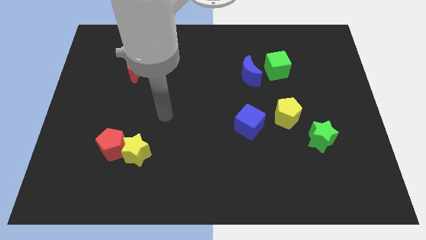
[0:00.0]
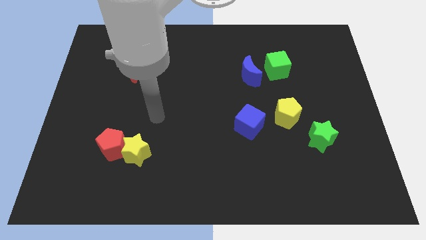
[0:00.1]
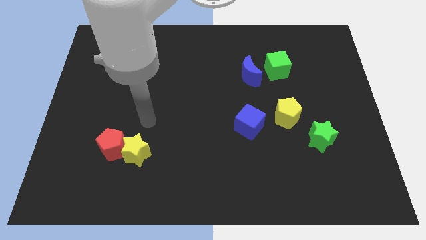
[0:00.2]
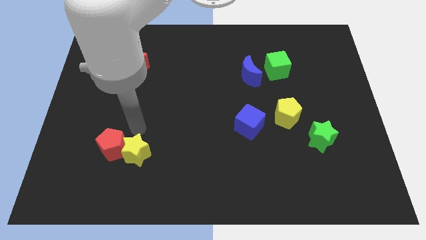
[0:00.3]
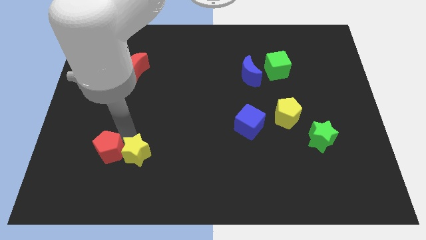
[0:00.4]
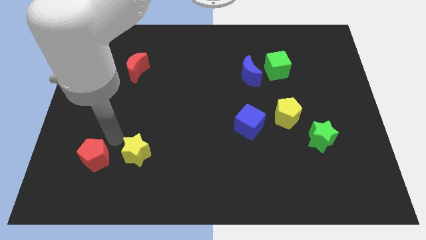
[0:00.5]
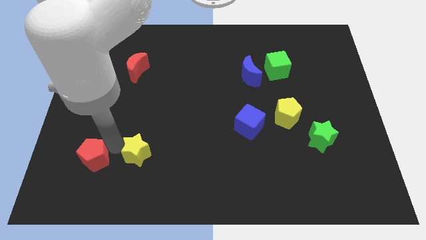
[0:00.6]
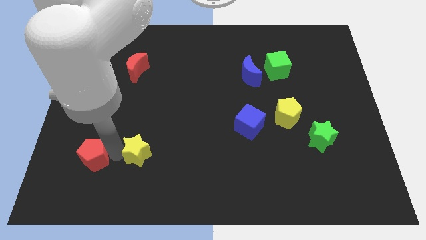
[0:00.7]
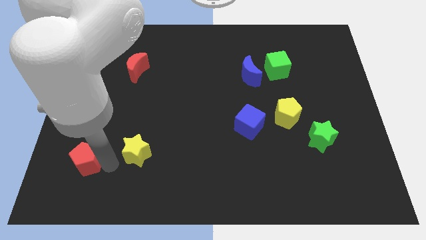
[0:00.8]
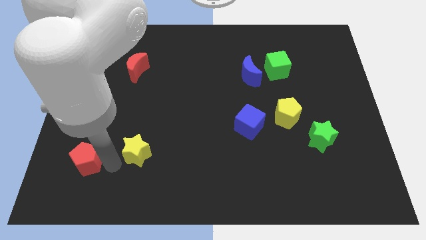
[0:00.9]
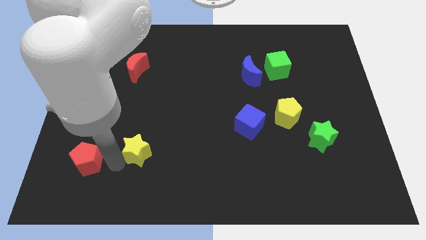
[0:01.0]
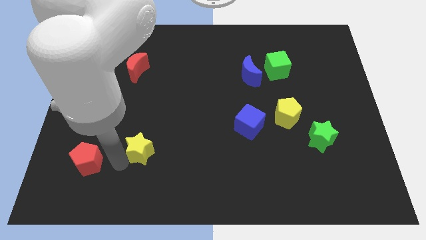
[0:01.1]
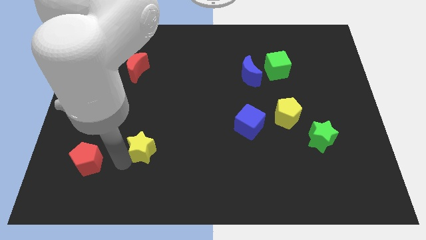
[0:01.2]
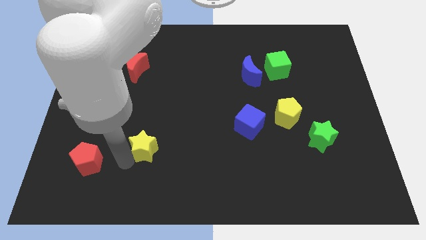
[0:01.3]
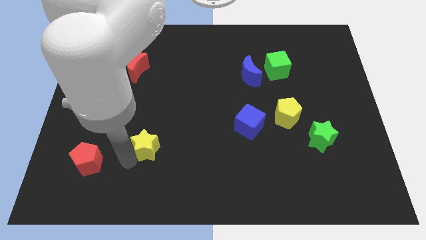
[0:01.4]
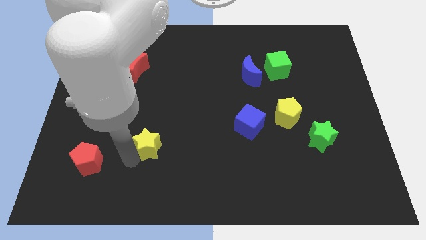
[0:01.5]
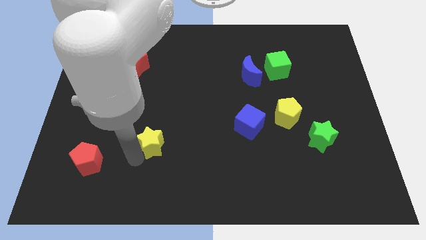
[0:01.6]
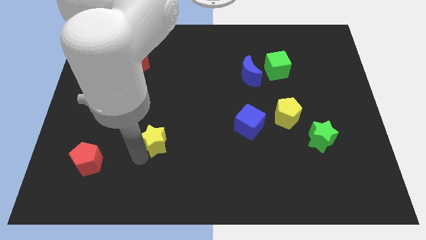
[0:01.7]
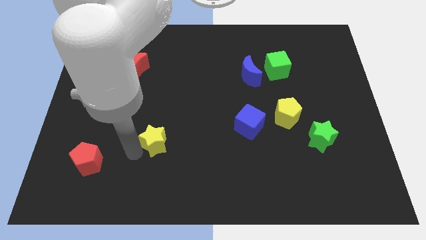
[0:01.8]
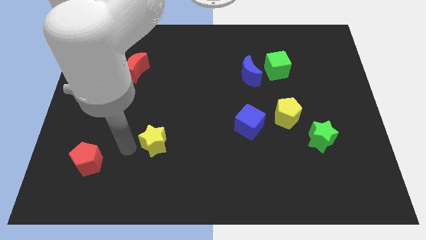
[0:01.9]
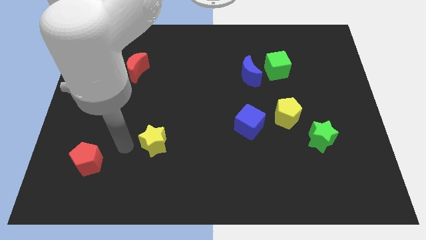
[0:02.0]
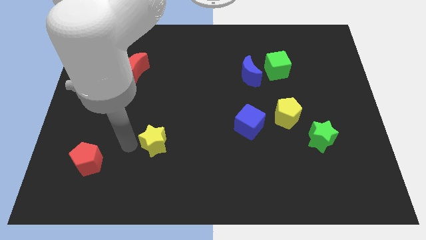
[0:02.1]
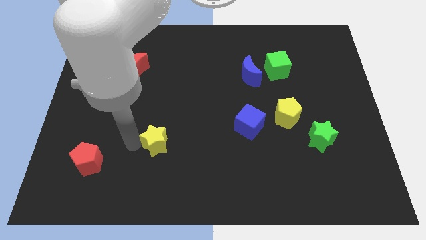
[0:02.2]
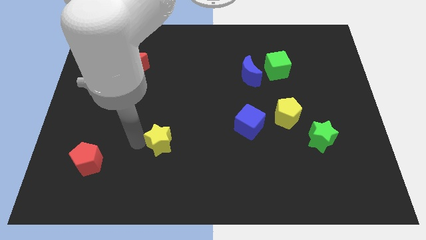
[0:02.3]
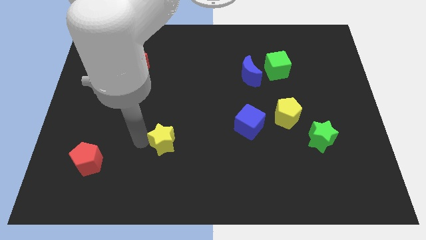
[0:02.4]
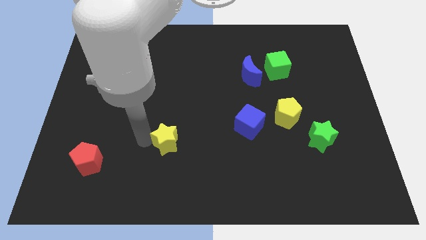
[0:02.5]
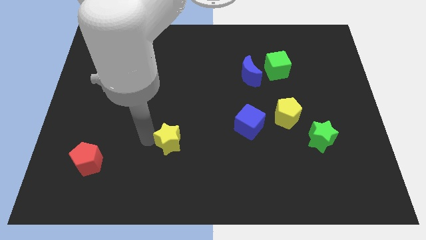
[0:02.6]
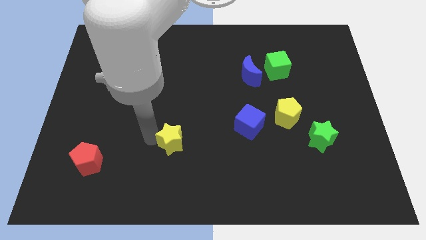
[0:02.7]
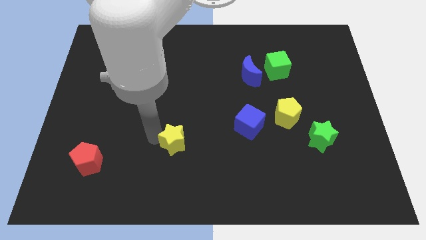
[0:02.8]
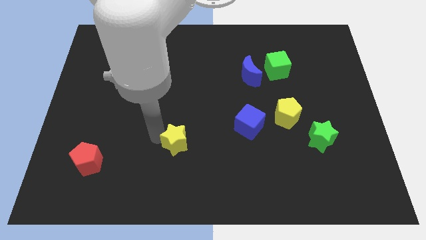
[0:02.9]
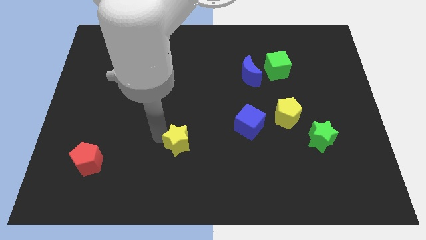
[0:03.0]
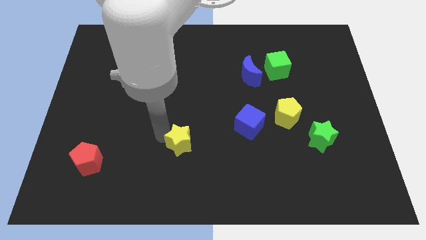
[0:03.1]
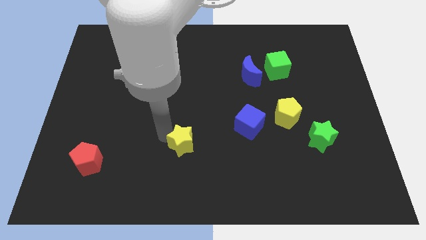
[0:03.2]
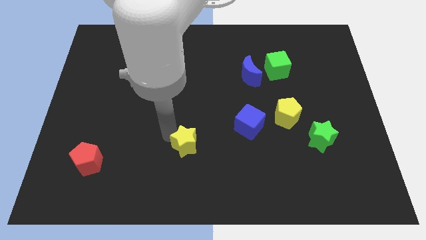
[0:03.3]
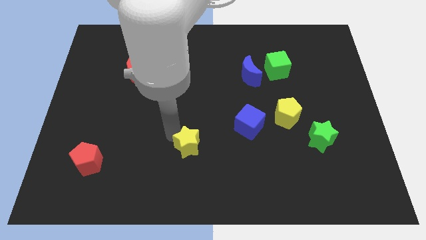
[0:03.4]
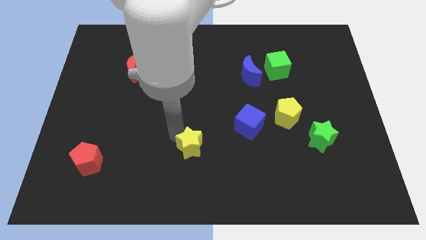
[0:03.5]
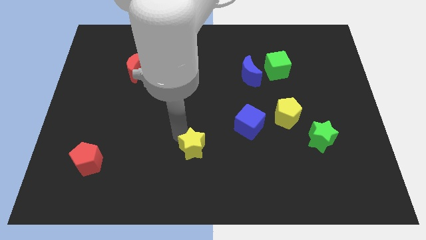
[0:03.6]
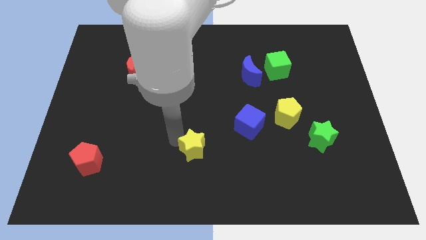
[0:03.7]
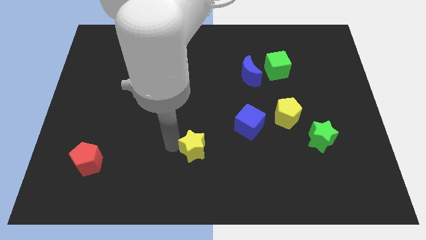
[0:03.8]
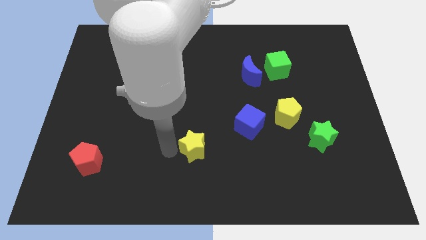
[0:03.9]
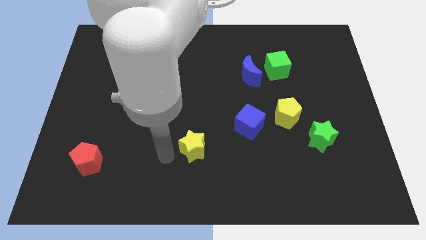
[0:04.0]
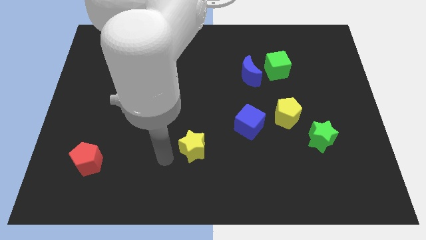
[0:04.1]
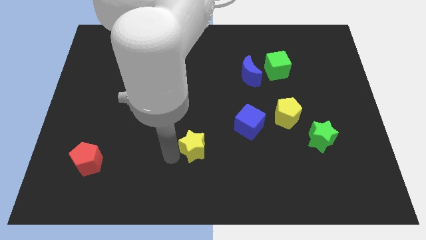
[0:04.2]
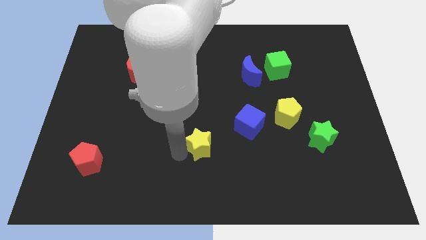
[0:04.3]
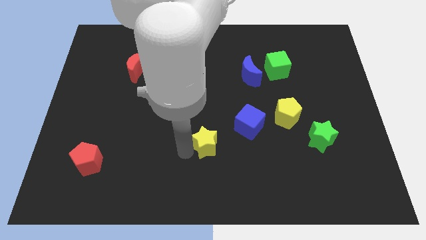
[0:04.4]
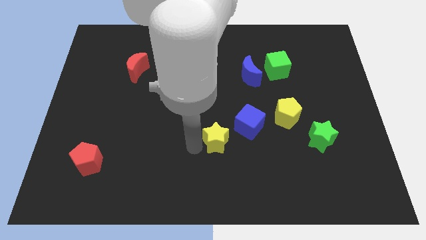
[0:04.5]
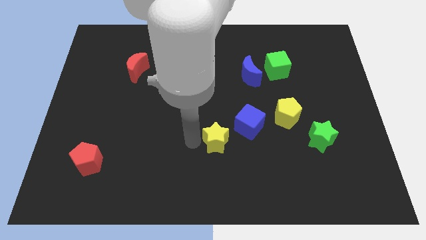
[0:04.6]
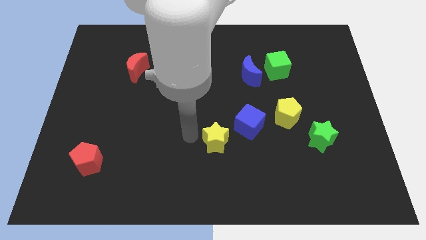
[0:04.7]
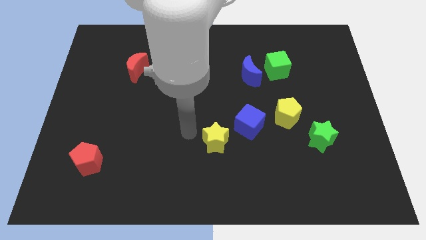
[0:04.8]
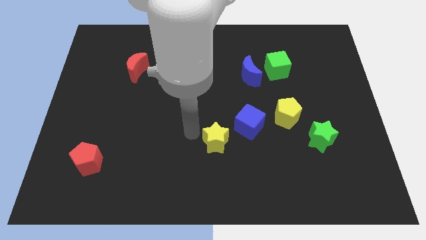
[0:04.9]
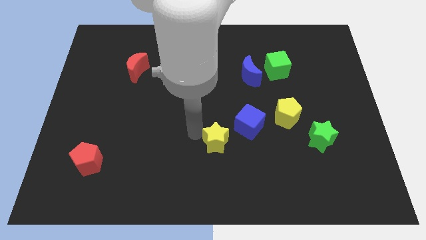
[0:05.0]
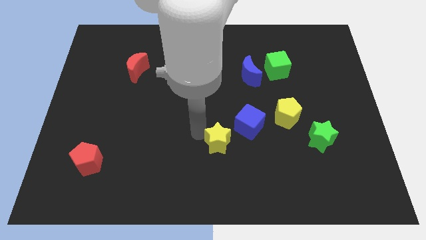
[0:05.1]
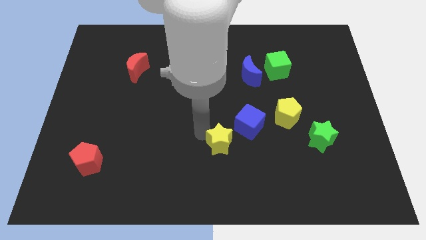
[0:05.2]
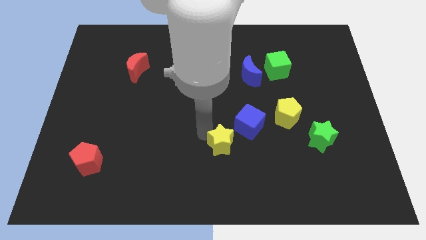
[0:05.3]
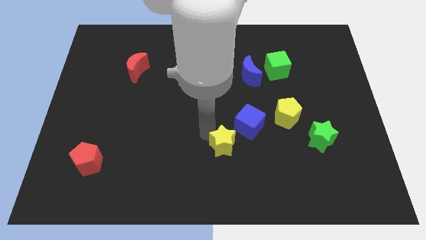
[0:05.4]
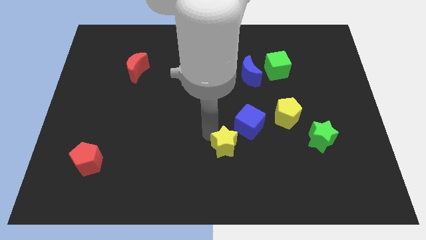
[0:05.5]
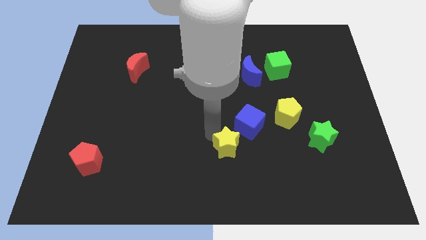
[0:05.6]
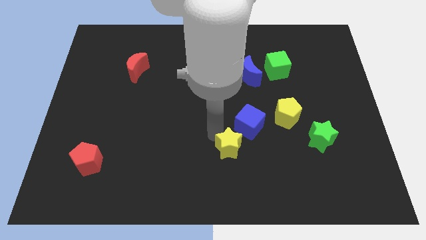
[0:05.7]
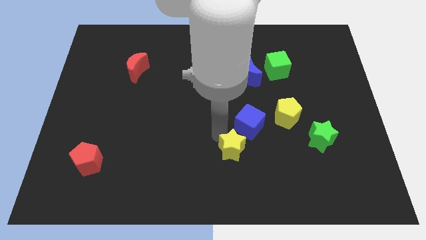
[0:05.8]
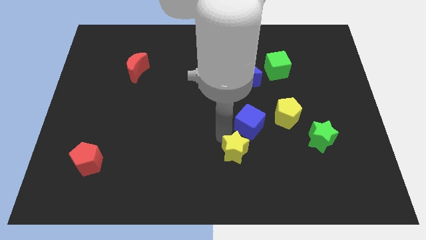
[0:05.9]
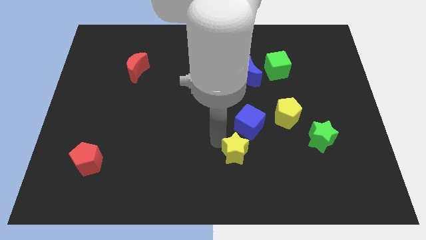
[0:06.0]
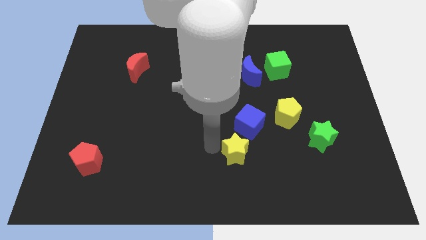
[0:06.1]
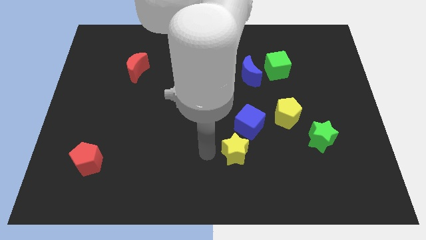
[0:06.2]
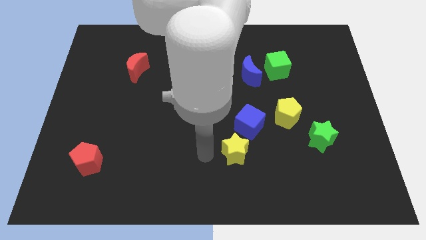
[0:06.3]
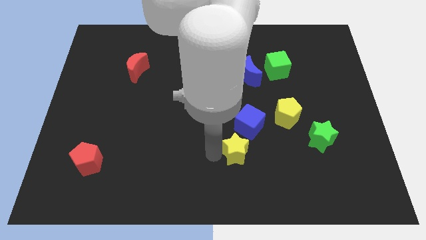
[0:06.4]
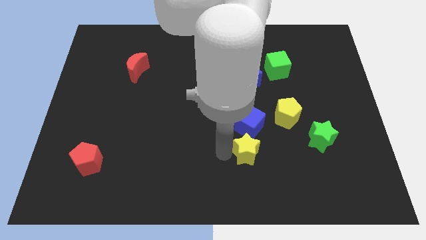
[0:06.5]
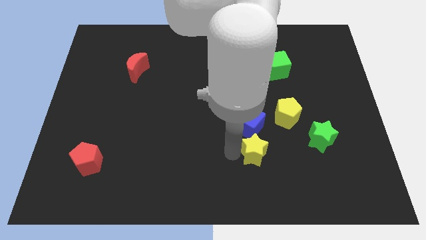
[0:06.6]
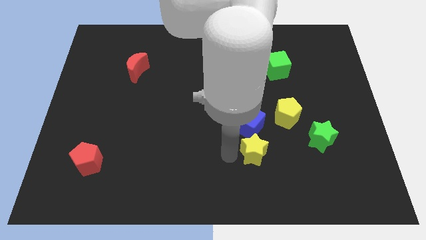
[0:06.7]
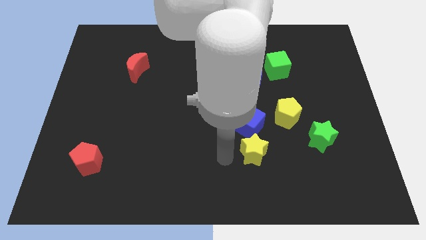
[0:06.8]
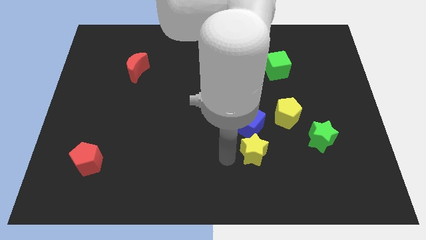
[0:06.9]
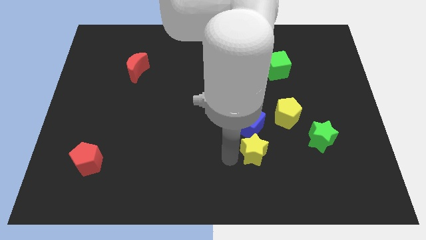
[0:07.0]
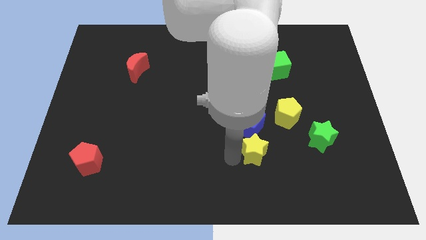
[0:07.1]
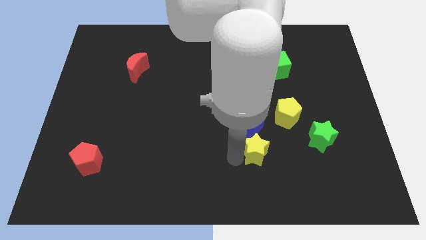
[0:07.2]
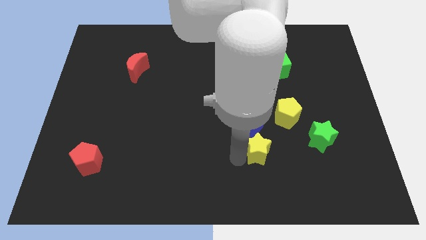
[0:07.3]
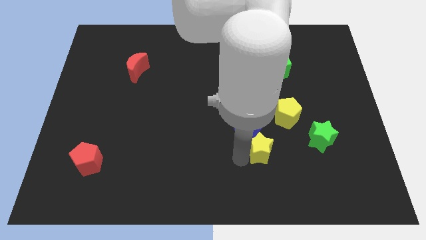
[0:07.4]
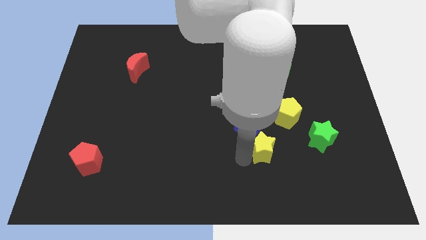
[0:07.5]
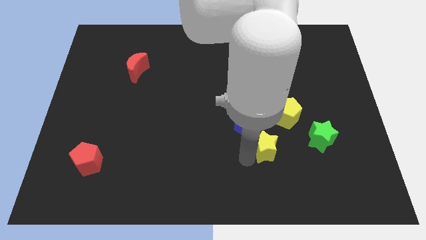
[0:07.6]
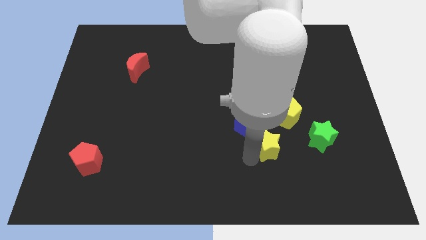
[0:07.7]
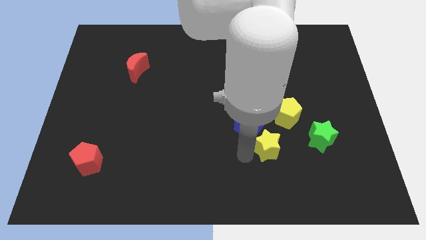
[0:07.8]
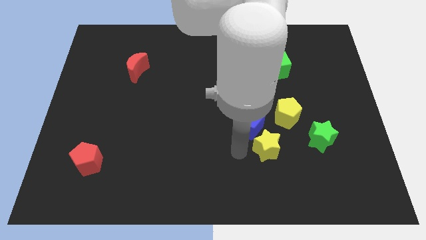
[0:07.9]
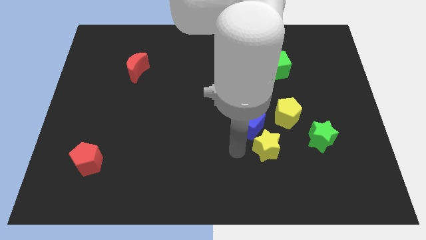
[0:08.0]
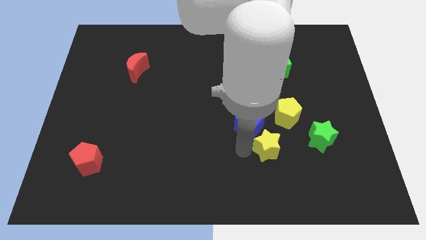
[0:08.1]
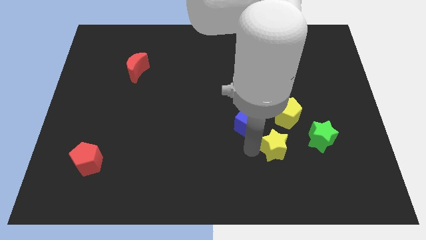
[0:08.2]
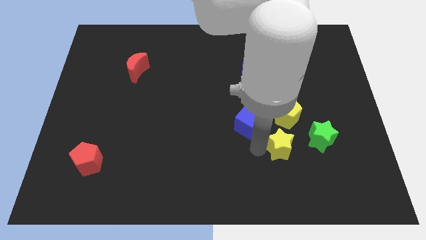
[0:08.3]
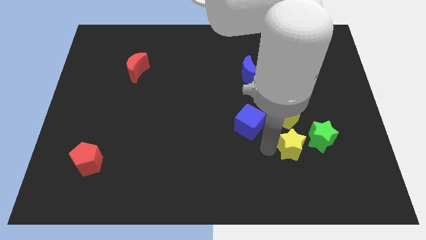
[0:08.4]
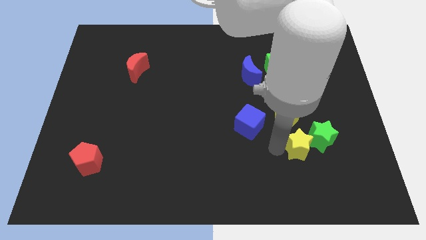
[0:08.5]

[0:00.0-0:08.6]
push the yellow star next to the green star

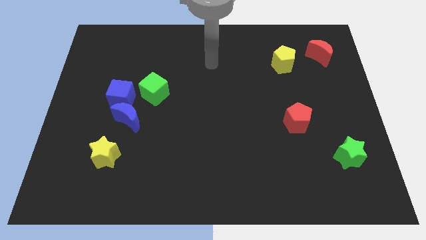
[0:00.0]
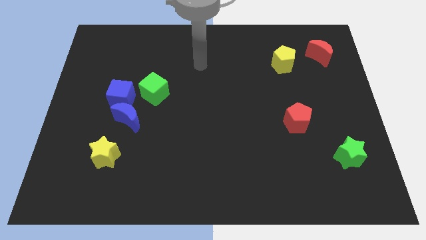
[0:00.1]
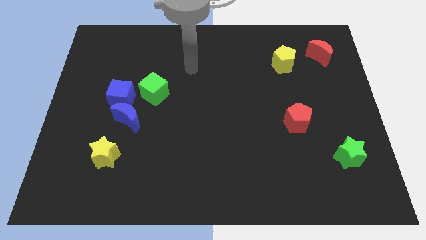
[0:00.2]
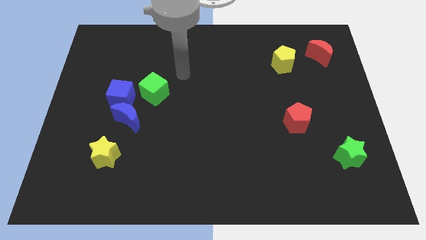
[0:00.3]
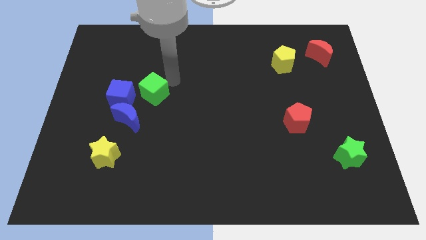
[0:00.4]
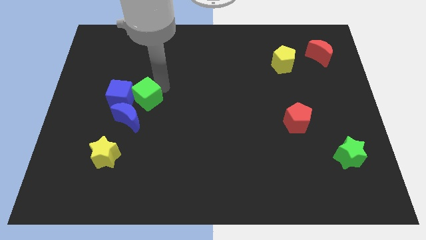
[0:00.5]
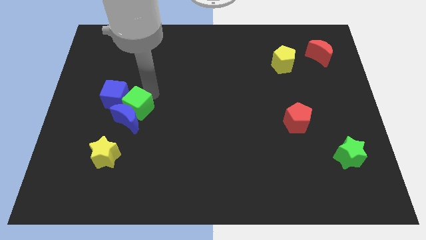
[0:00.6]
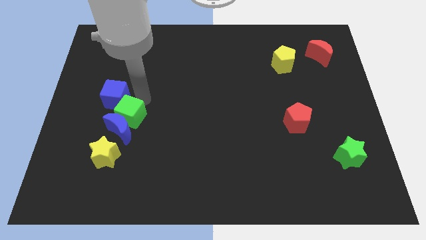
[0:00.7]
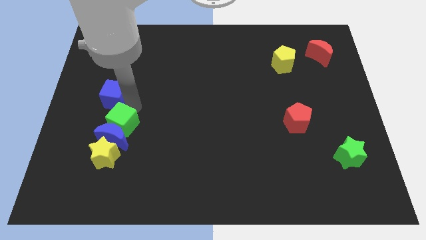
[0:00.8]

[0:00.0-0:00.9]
slide the blue moon to the yellow star
